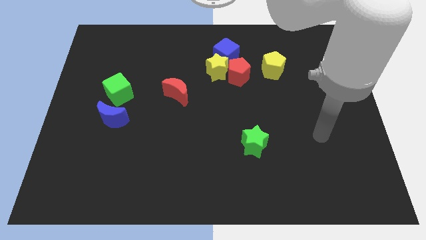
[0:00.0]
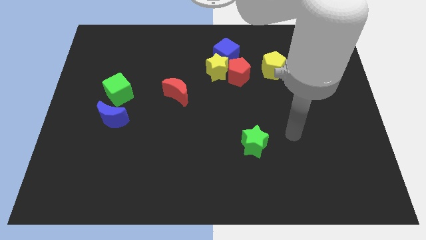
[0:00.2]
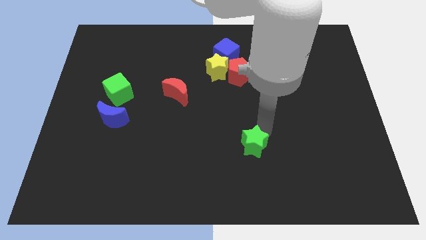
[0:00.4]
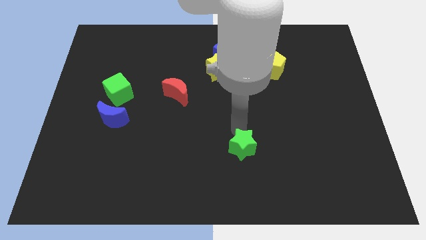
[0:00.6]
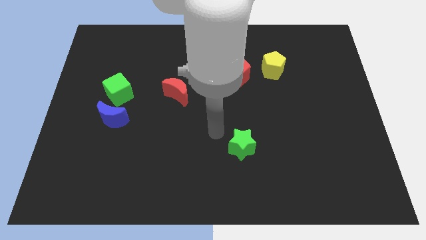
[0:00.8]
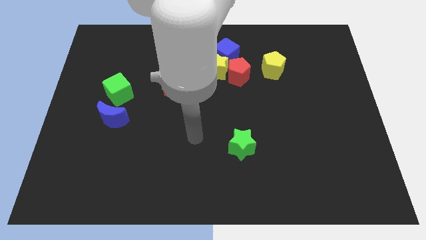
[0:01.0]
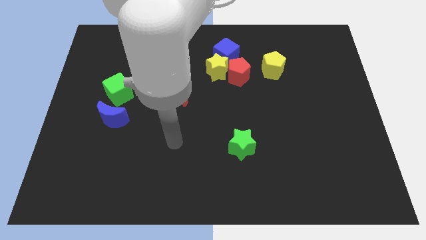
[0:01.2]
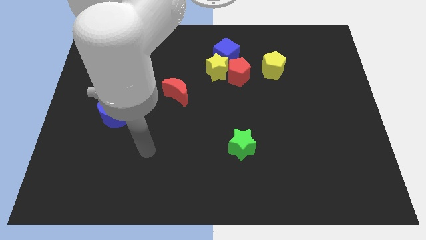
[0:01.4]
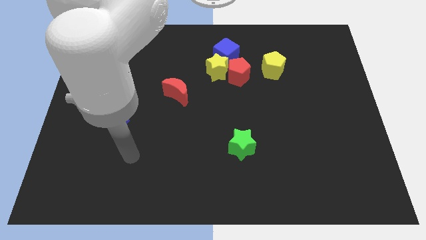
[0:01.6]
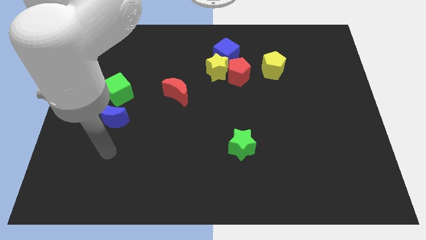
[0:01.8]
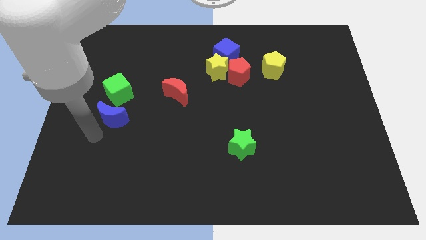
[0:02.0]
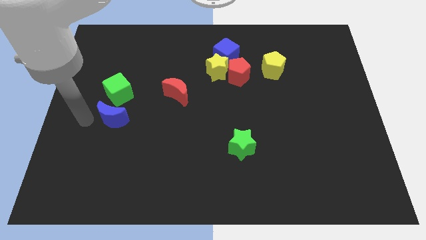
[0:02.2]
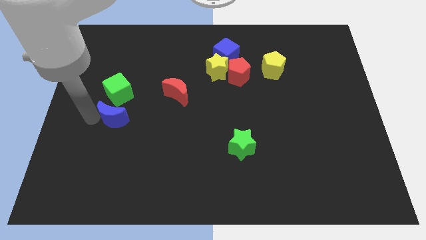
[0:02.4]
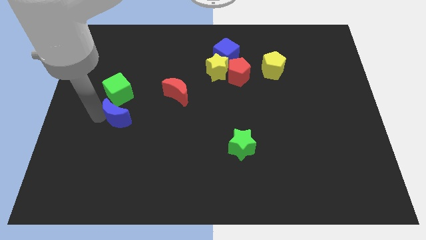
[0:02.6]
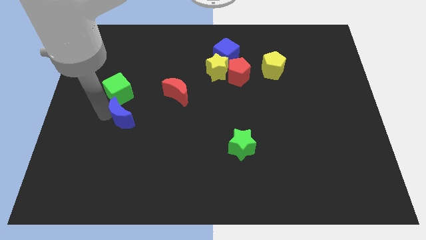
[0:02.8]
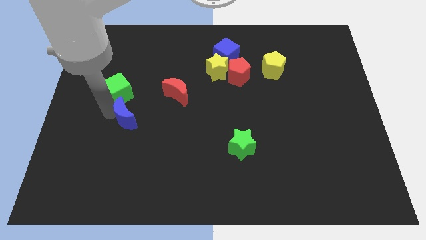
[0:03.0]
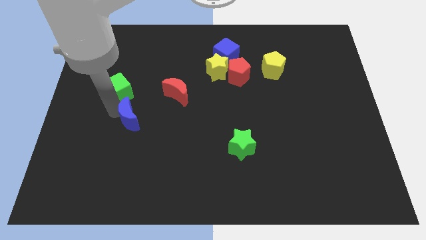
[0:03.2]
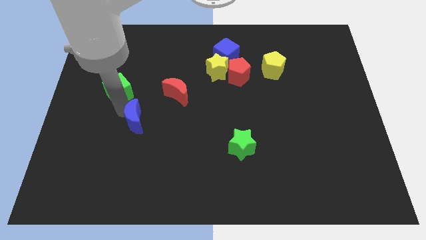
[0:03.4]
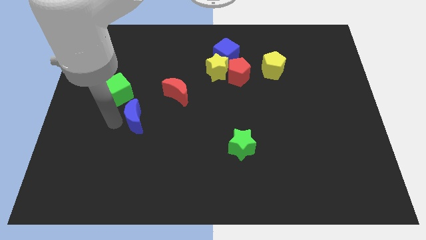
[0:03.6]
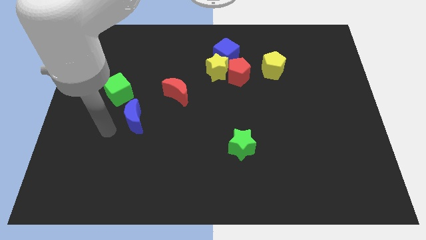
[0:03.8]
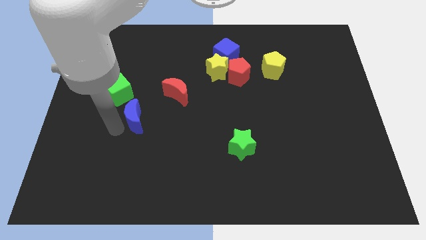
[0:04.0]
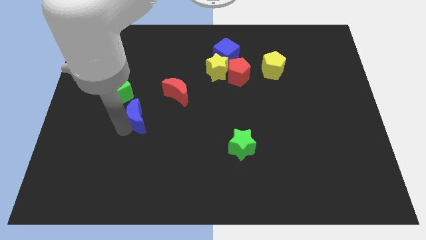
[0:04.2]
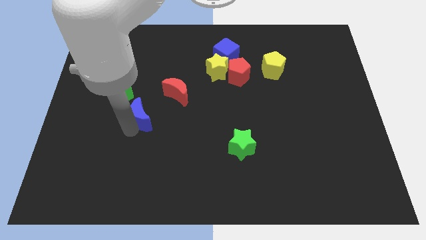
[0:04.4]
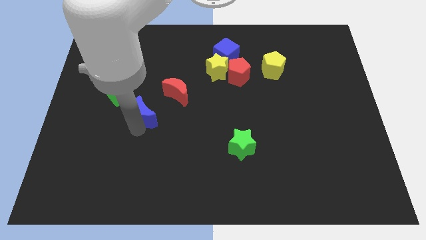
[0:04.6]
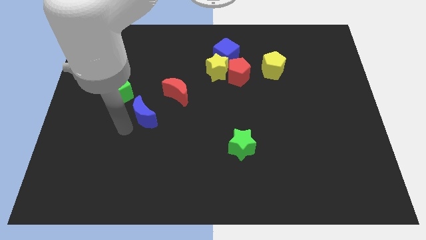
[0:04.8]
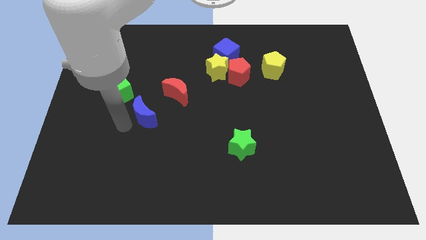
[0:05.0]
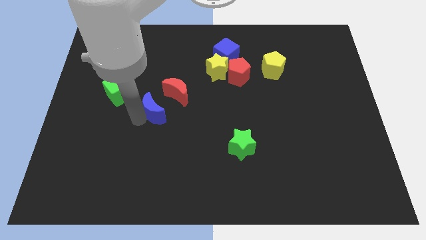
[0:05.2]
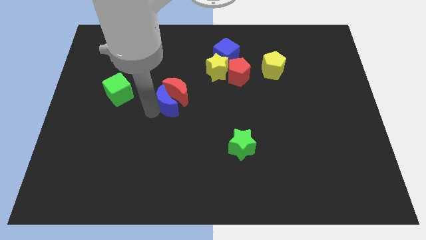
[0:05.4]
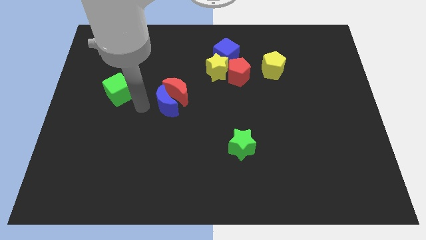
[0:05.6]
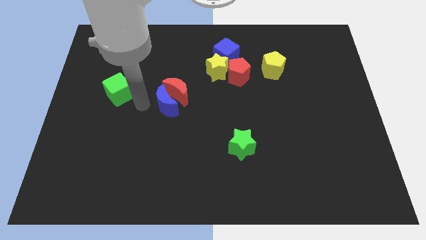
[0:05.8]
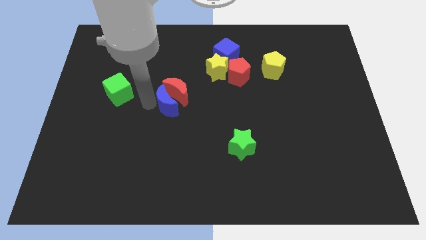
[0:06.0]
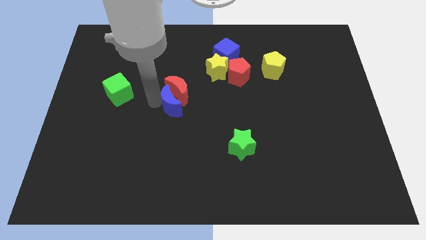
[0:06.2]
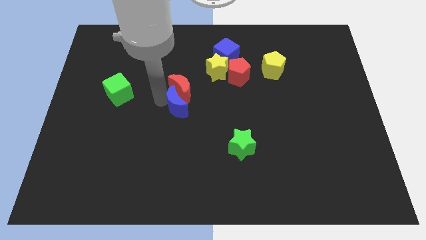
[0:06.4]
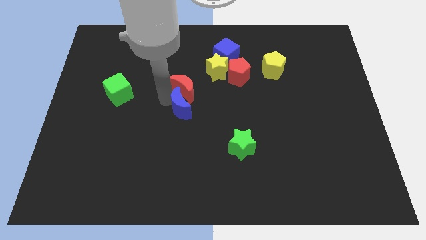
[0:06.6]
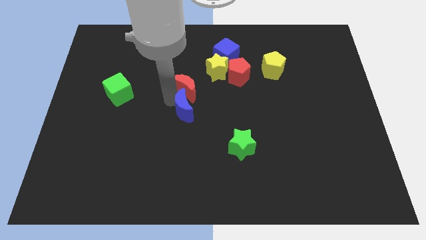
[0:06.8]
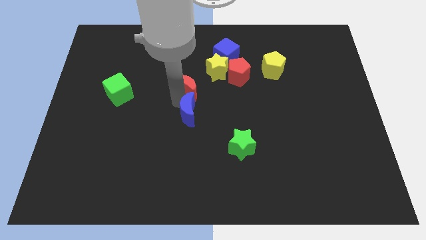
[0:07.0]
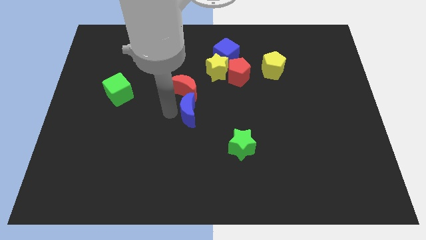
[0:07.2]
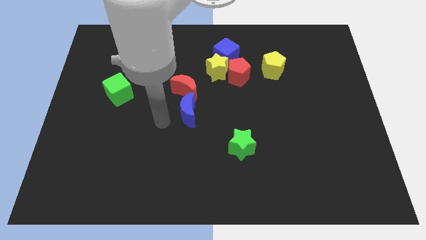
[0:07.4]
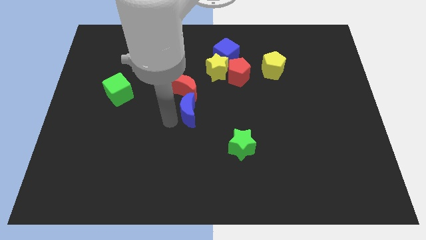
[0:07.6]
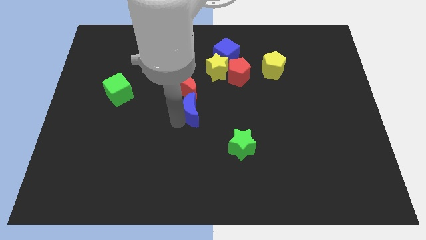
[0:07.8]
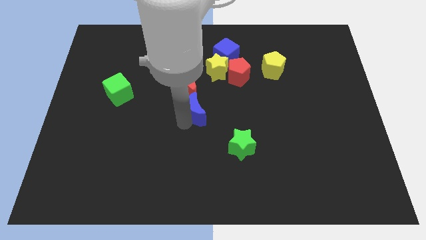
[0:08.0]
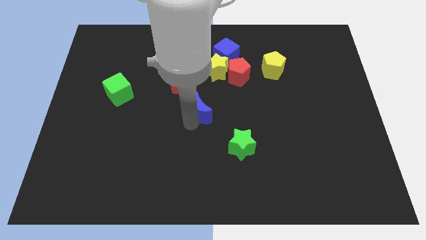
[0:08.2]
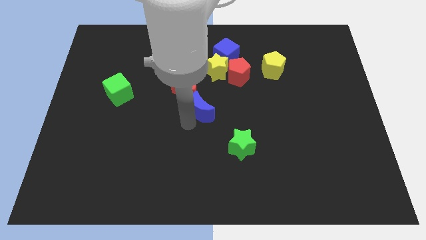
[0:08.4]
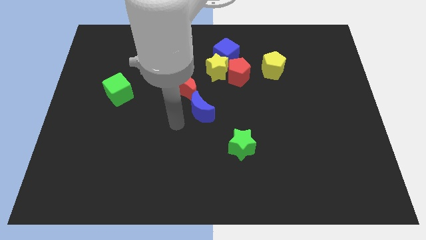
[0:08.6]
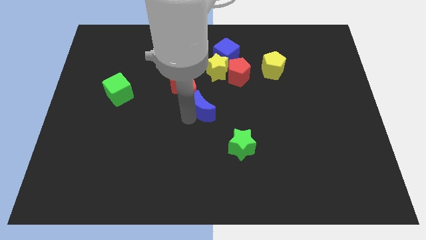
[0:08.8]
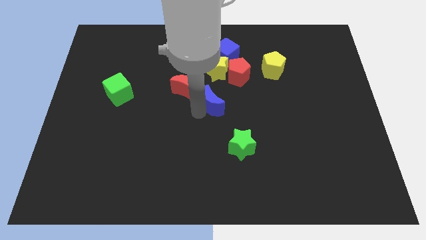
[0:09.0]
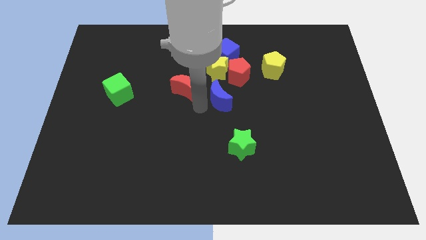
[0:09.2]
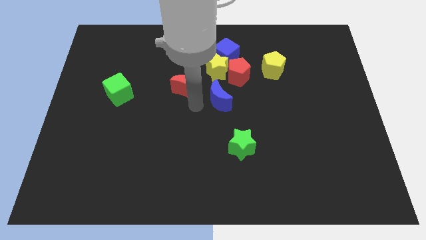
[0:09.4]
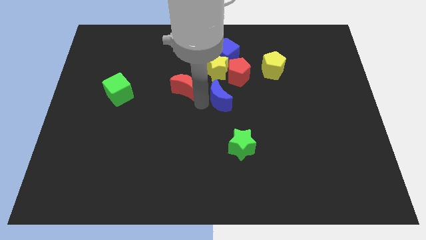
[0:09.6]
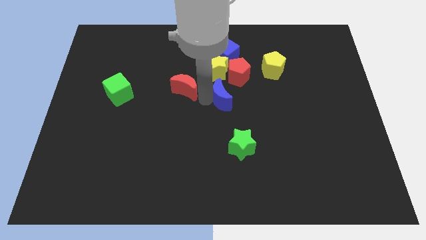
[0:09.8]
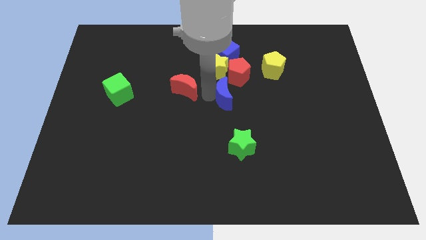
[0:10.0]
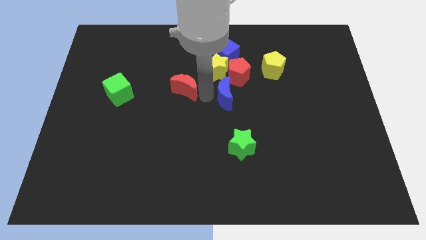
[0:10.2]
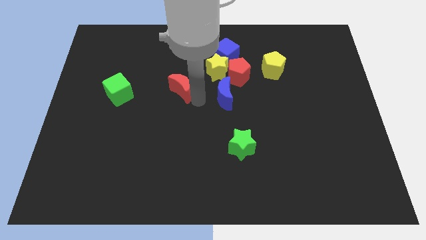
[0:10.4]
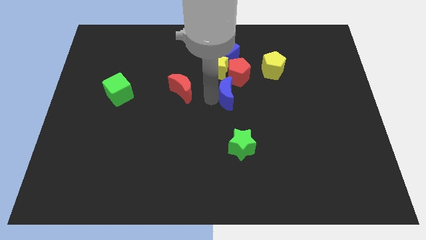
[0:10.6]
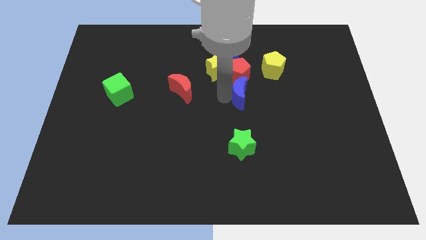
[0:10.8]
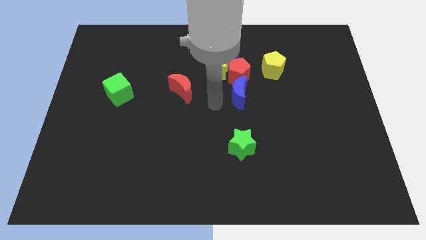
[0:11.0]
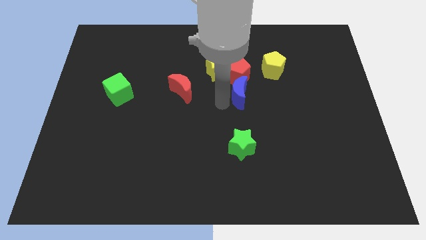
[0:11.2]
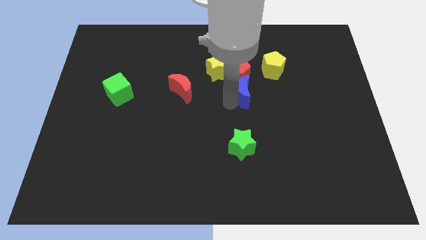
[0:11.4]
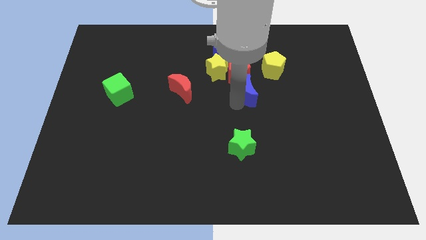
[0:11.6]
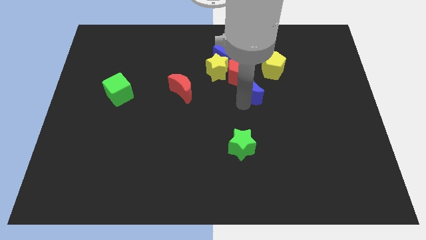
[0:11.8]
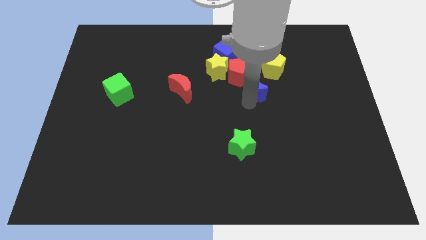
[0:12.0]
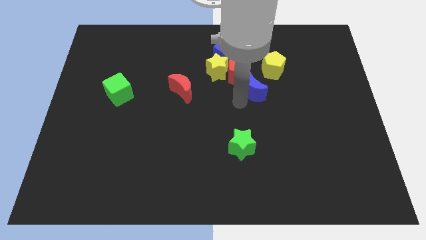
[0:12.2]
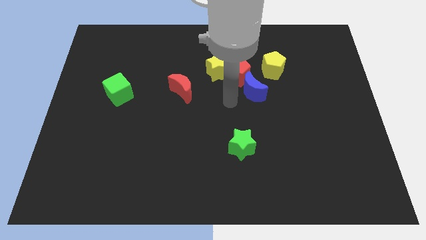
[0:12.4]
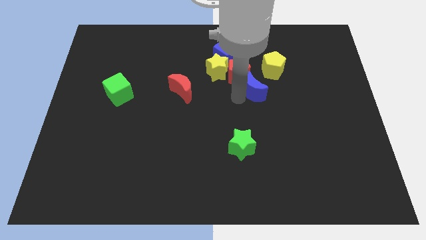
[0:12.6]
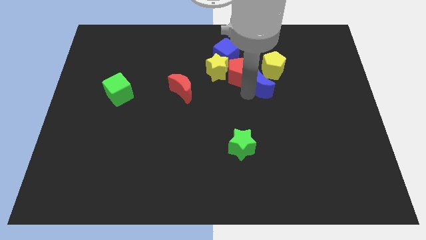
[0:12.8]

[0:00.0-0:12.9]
slide the blue moon just right of the red pentagon

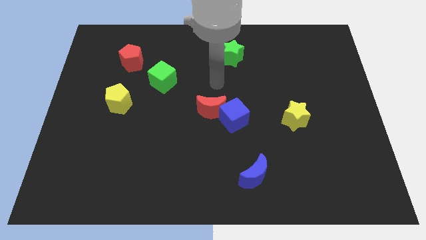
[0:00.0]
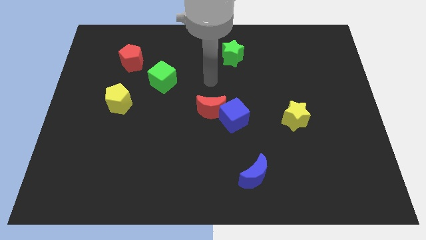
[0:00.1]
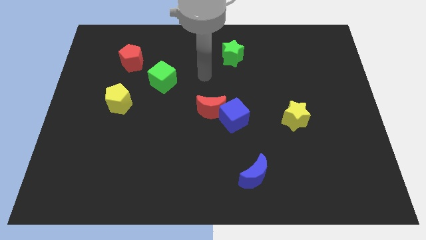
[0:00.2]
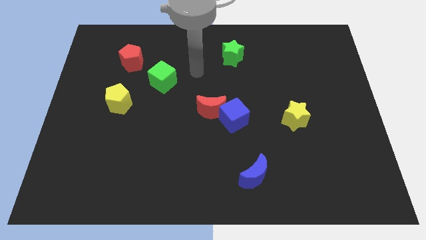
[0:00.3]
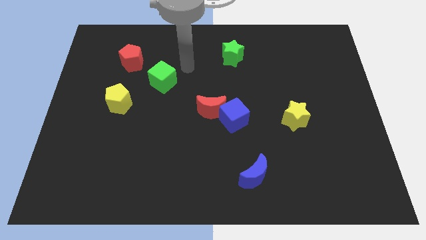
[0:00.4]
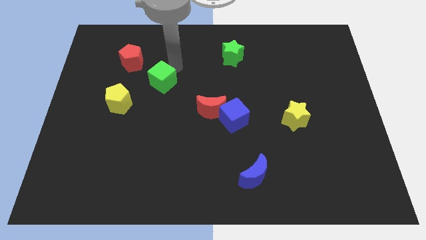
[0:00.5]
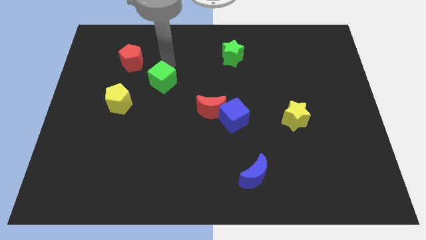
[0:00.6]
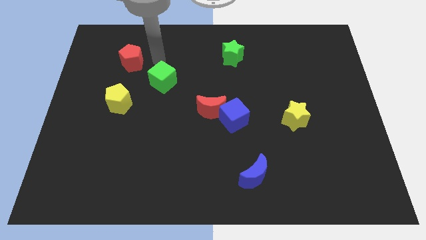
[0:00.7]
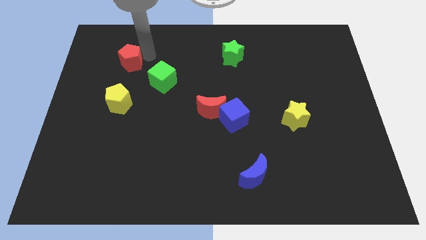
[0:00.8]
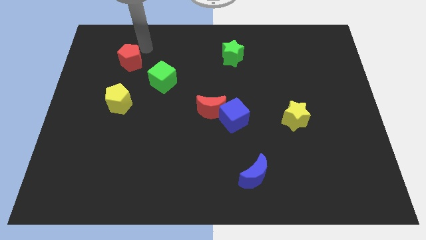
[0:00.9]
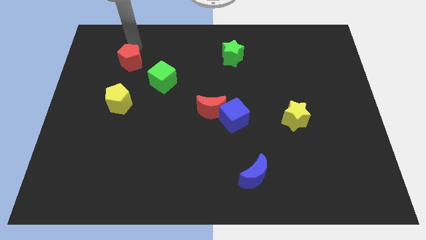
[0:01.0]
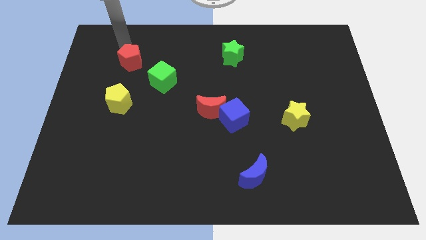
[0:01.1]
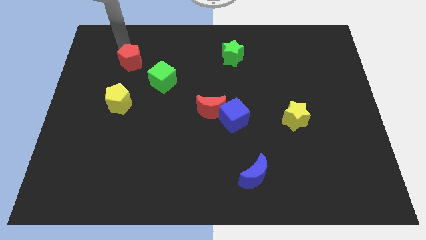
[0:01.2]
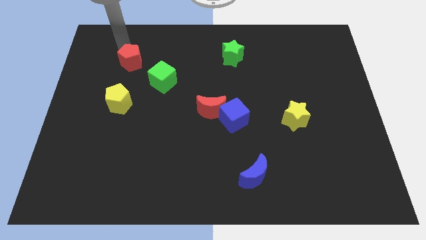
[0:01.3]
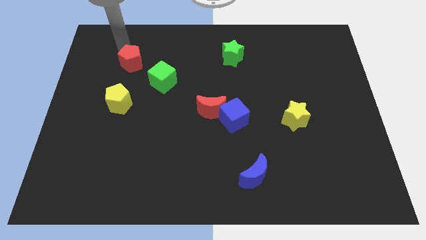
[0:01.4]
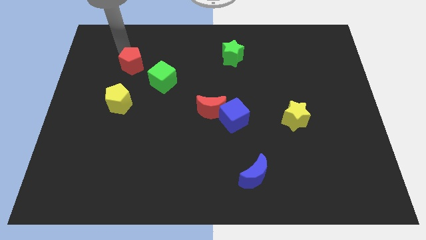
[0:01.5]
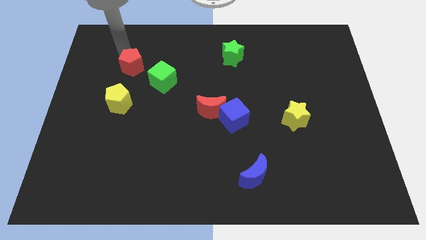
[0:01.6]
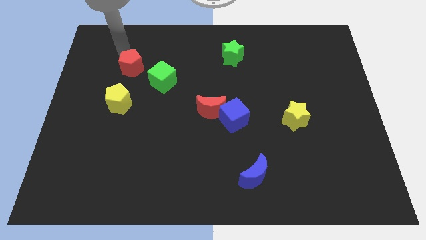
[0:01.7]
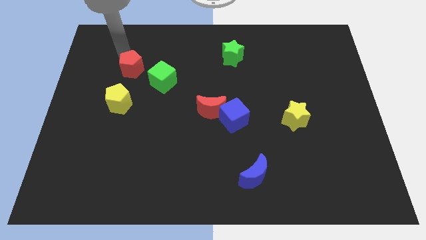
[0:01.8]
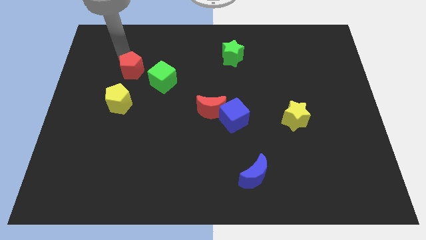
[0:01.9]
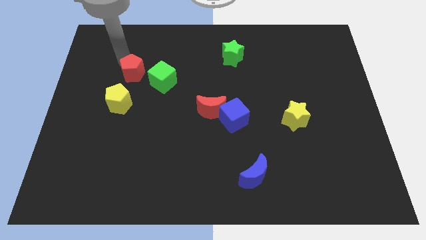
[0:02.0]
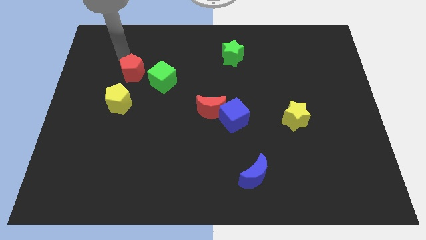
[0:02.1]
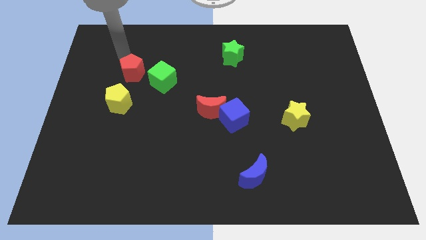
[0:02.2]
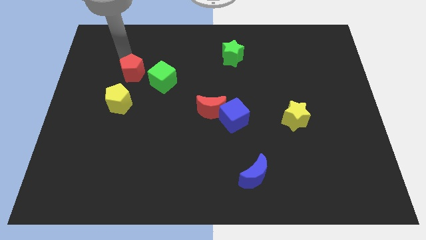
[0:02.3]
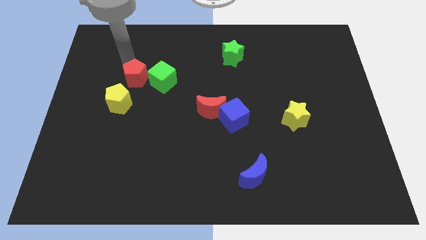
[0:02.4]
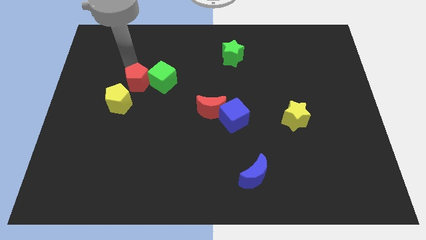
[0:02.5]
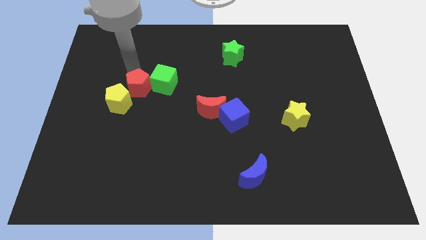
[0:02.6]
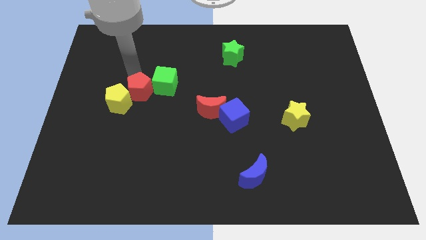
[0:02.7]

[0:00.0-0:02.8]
put the red pentagon right of the yellow pentagon
